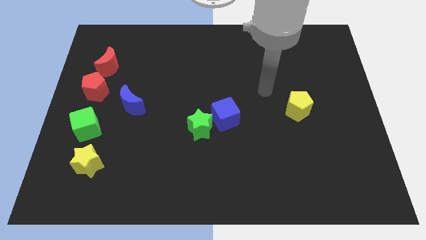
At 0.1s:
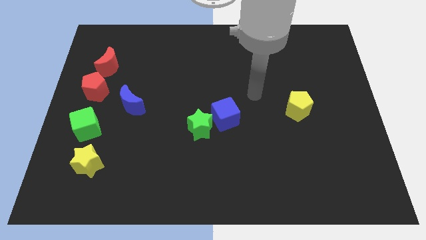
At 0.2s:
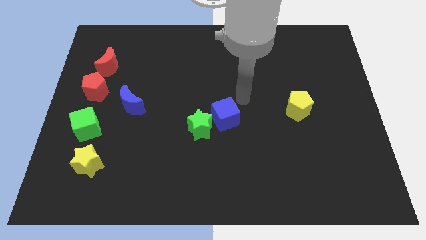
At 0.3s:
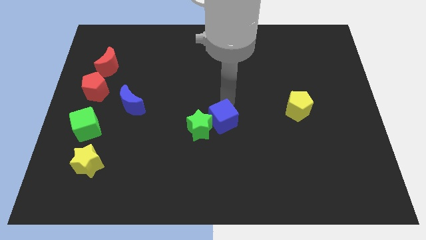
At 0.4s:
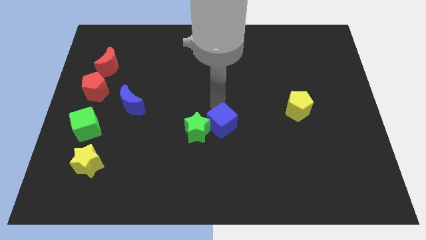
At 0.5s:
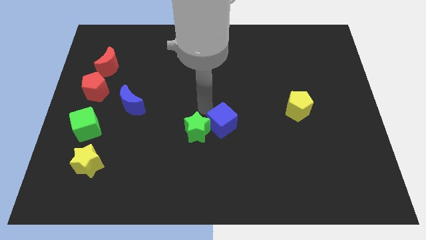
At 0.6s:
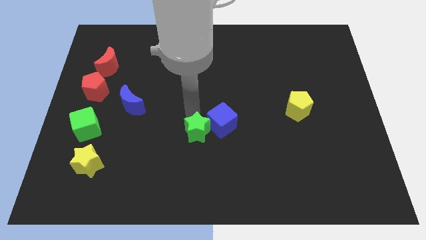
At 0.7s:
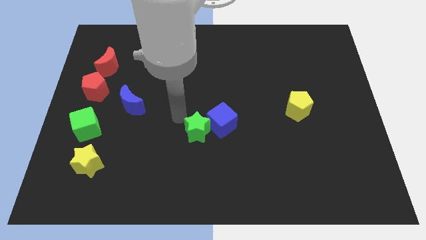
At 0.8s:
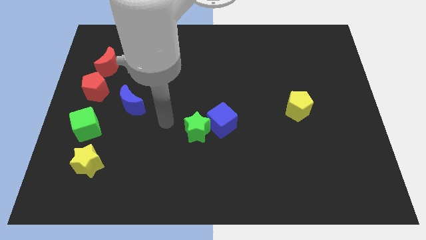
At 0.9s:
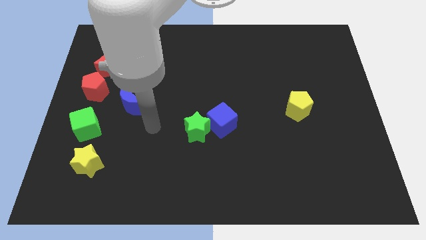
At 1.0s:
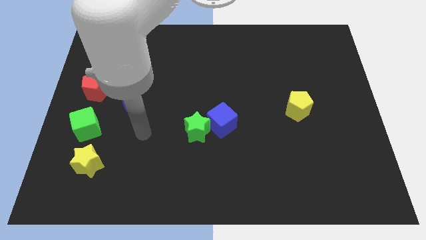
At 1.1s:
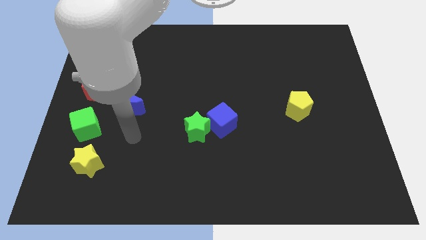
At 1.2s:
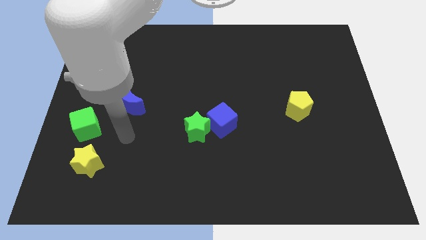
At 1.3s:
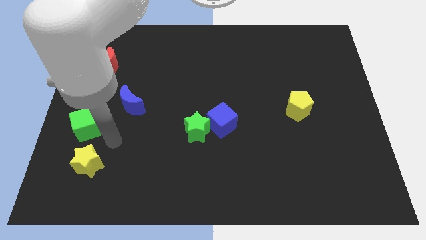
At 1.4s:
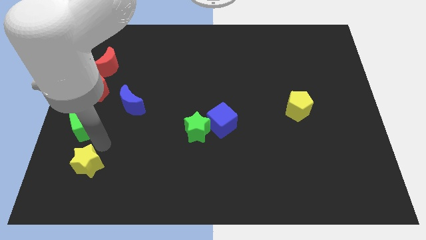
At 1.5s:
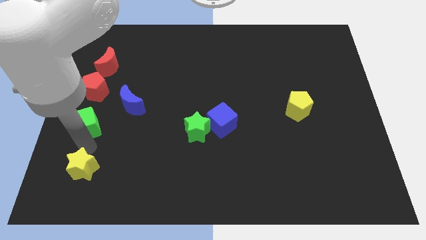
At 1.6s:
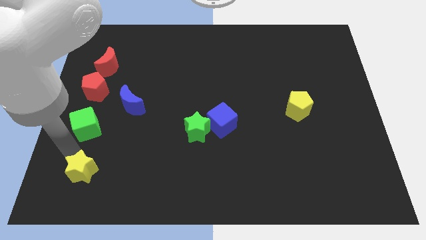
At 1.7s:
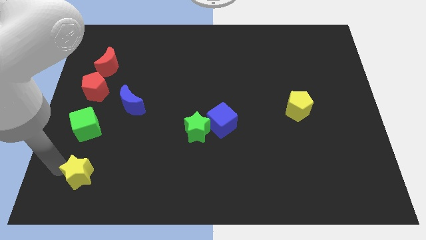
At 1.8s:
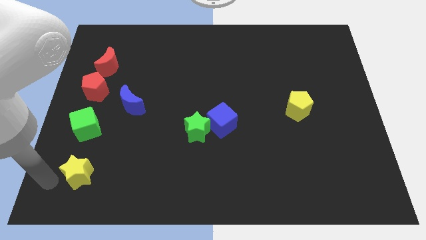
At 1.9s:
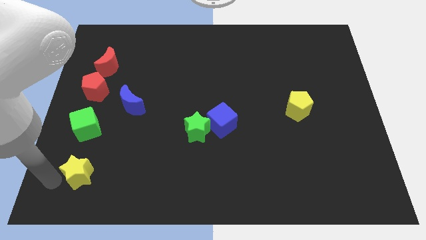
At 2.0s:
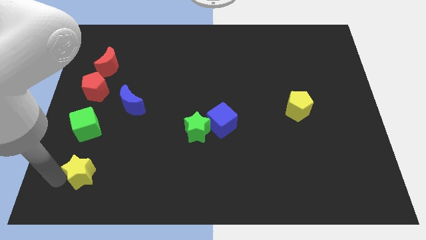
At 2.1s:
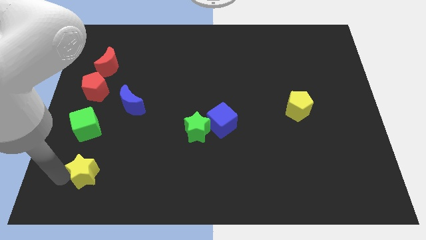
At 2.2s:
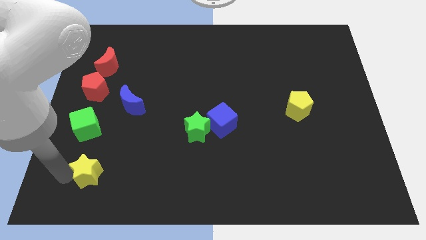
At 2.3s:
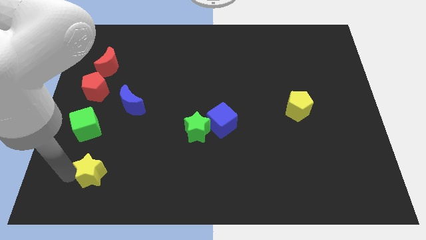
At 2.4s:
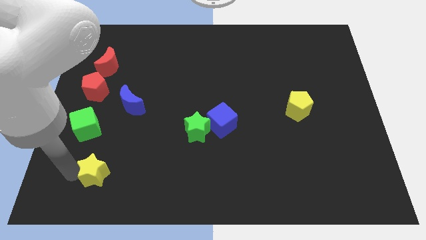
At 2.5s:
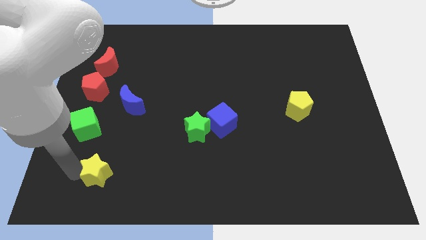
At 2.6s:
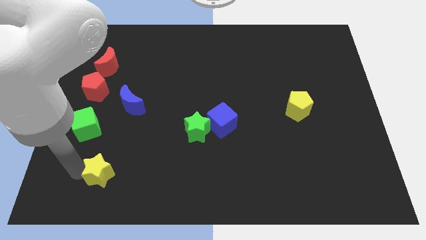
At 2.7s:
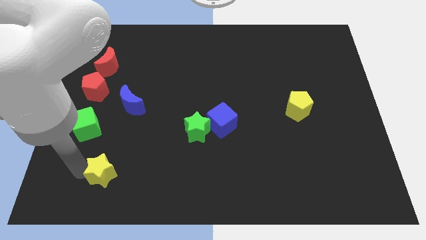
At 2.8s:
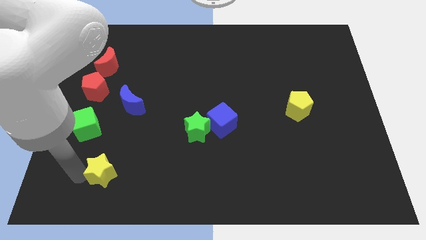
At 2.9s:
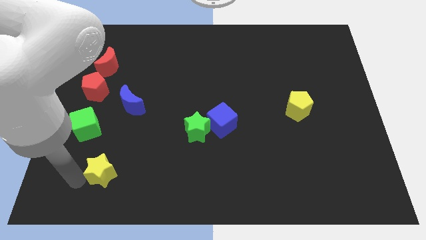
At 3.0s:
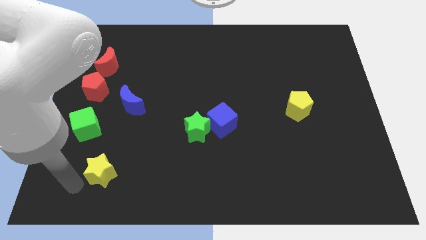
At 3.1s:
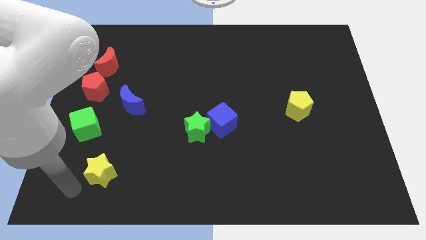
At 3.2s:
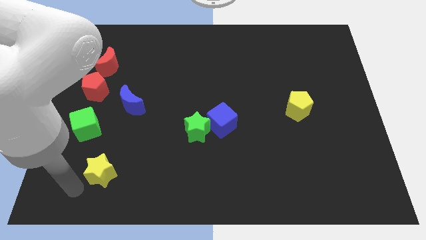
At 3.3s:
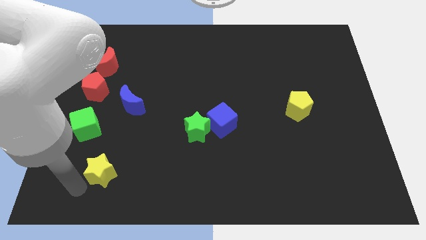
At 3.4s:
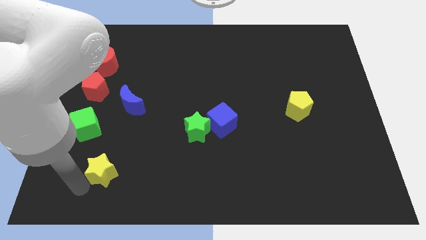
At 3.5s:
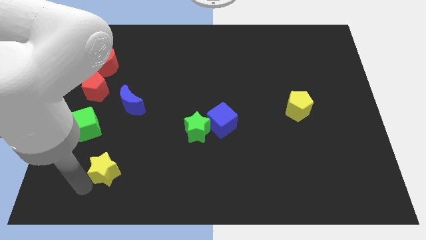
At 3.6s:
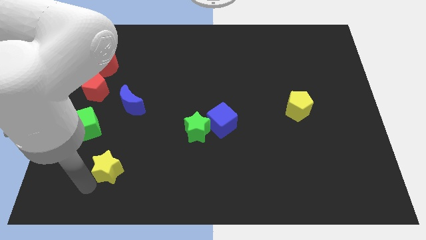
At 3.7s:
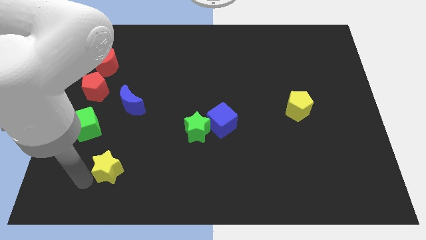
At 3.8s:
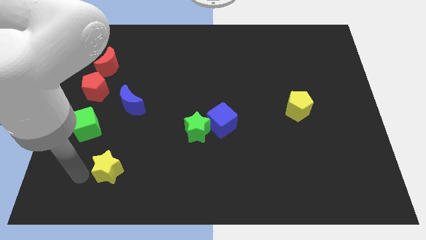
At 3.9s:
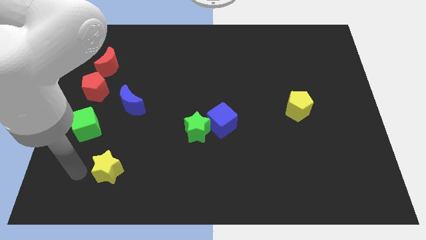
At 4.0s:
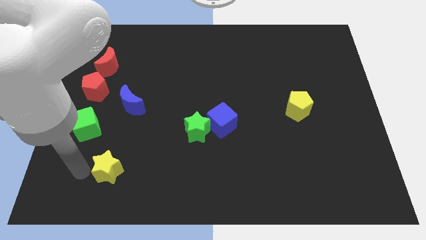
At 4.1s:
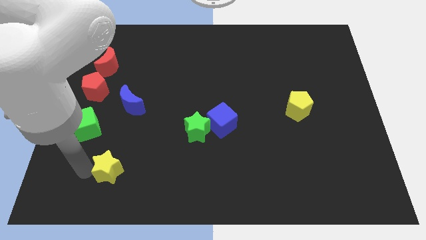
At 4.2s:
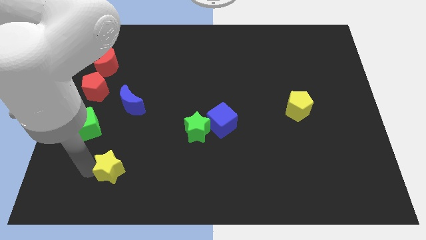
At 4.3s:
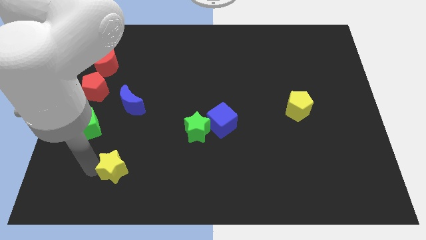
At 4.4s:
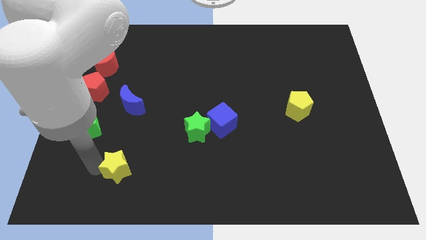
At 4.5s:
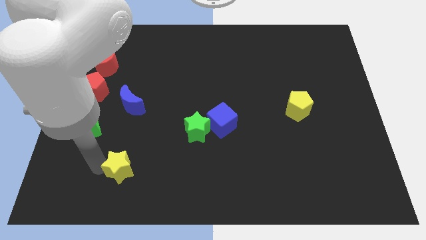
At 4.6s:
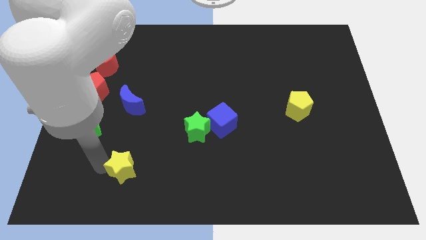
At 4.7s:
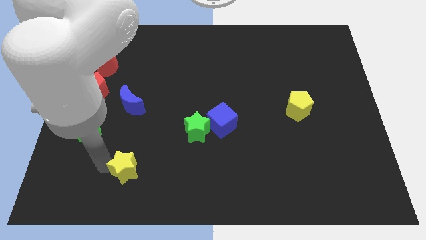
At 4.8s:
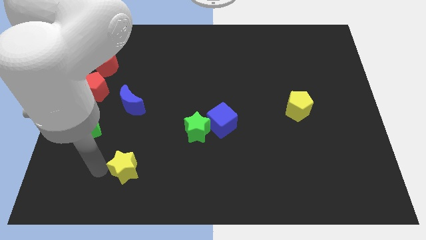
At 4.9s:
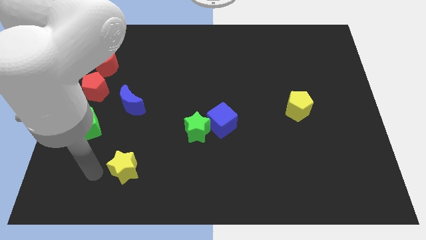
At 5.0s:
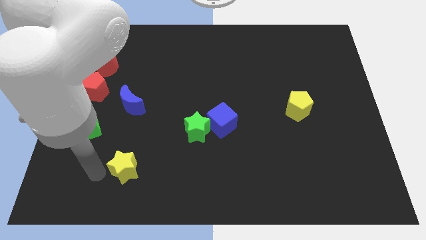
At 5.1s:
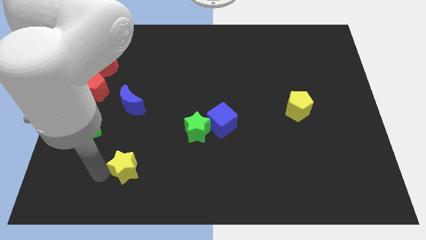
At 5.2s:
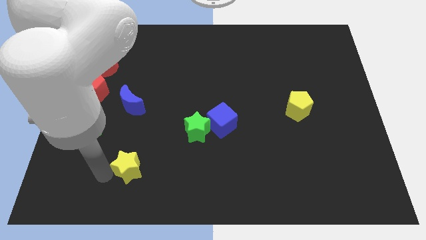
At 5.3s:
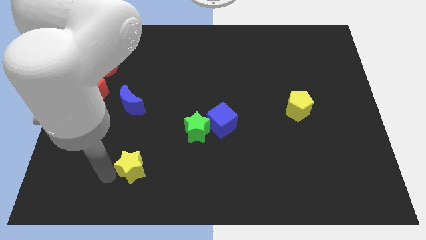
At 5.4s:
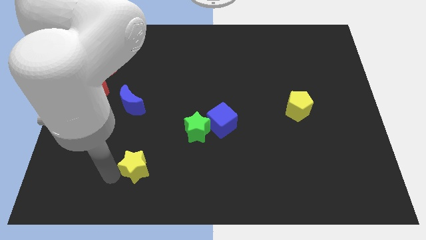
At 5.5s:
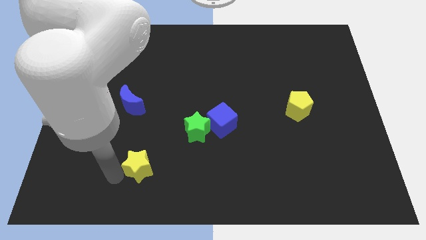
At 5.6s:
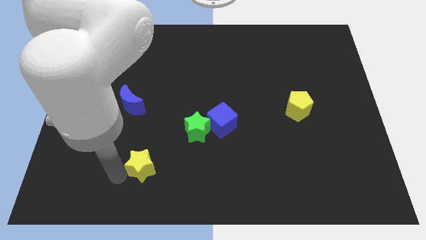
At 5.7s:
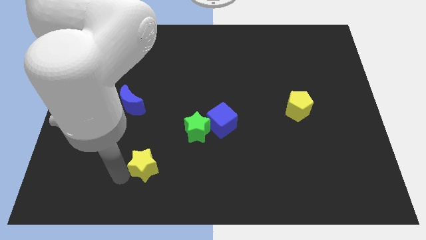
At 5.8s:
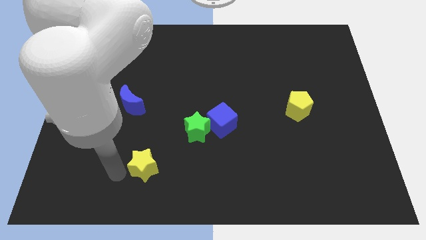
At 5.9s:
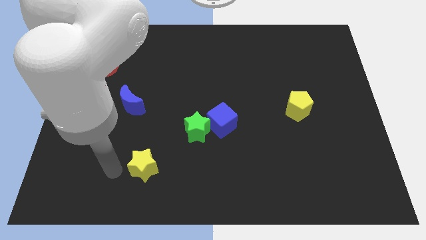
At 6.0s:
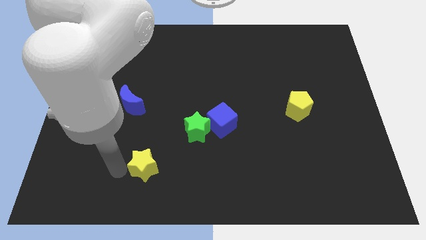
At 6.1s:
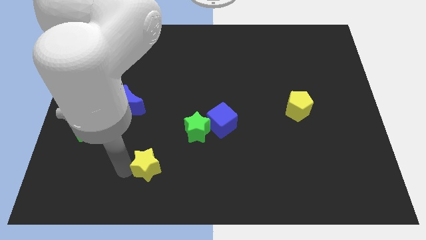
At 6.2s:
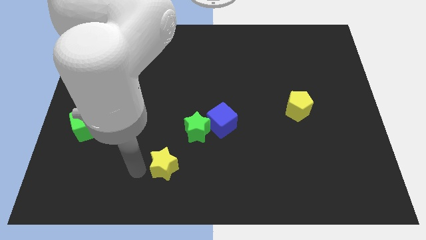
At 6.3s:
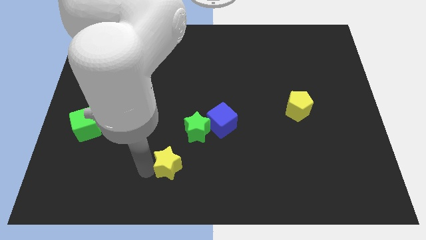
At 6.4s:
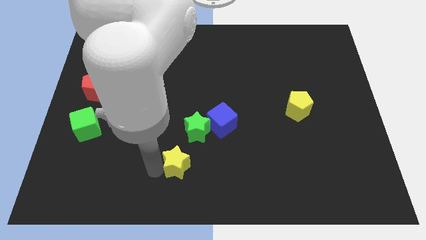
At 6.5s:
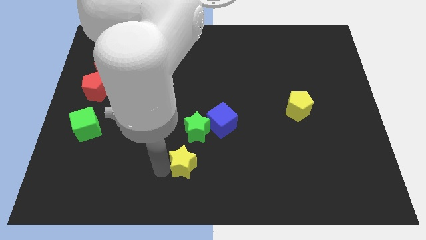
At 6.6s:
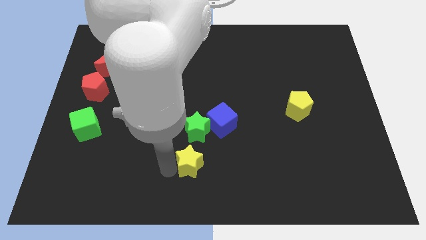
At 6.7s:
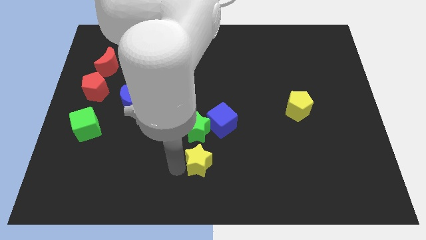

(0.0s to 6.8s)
move the yellow star to the bottom of the blue cube

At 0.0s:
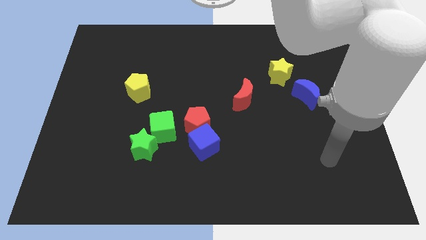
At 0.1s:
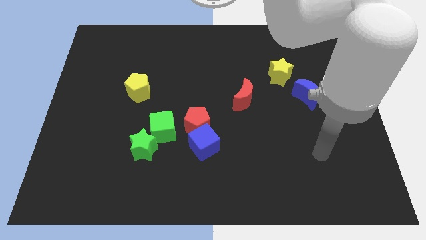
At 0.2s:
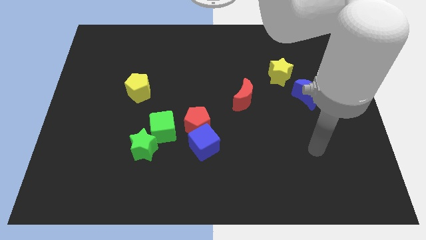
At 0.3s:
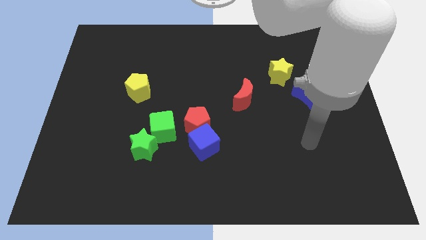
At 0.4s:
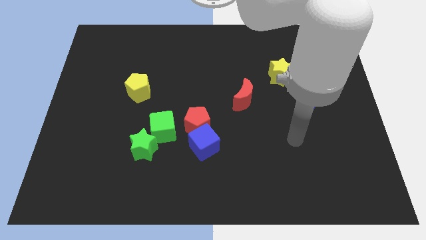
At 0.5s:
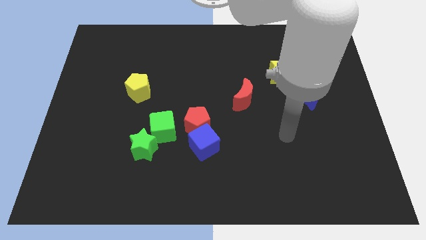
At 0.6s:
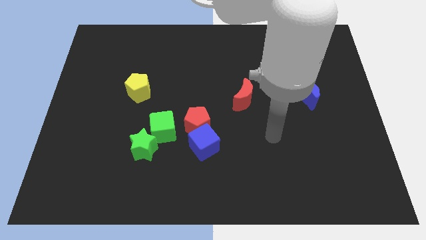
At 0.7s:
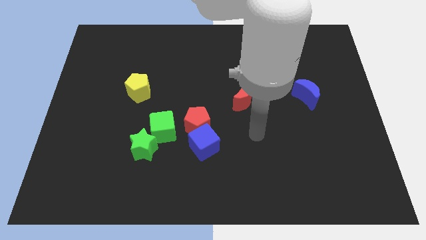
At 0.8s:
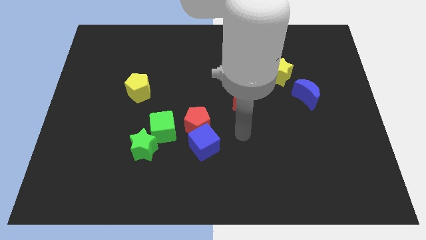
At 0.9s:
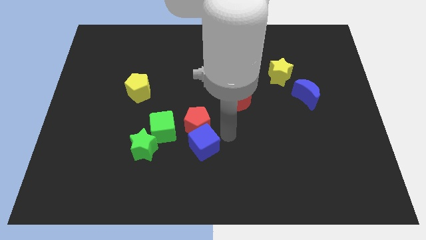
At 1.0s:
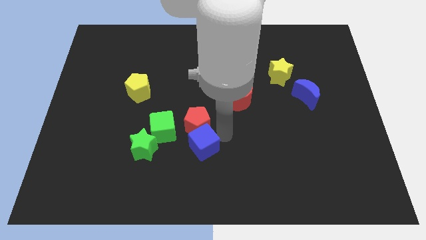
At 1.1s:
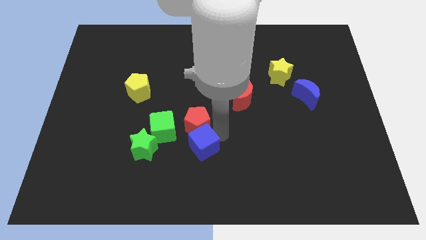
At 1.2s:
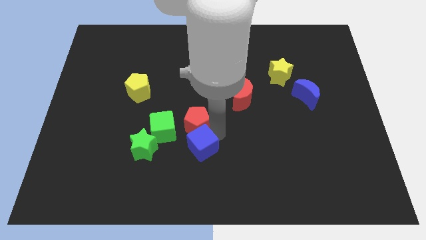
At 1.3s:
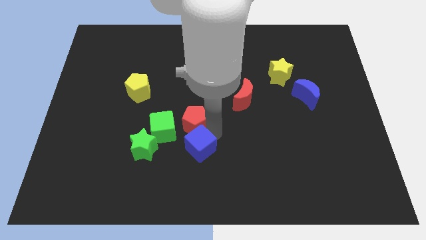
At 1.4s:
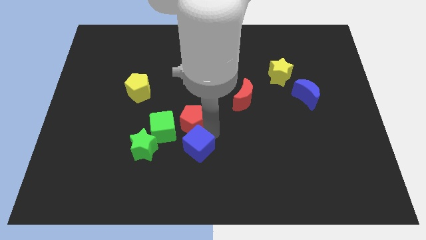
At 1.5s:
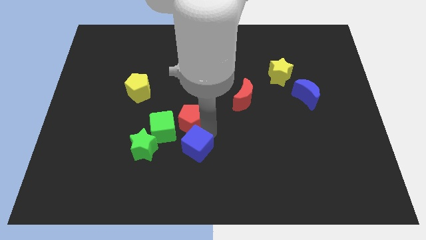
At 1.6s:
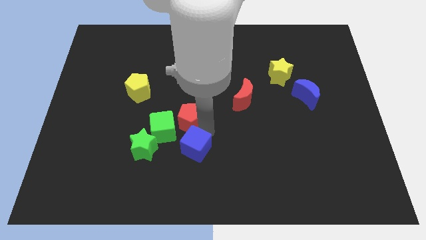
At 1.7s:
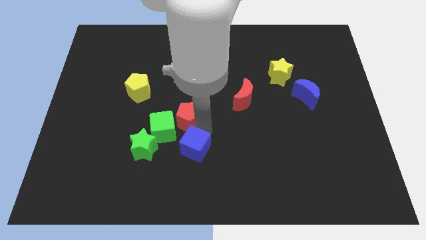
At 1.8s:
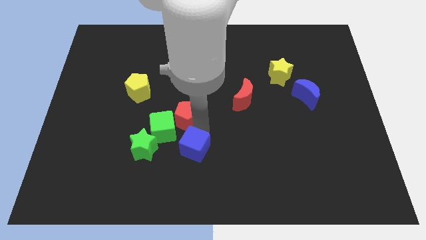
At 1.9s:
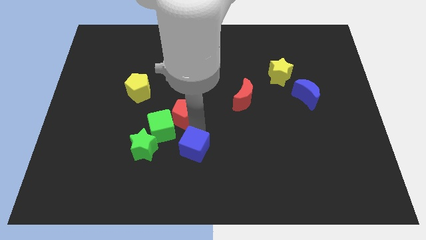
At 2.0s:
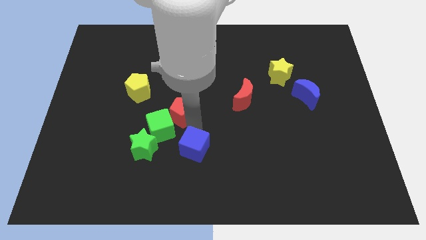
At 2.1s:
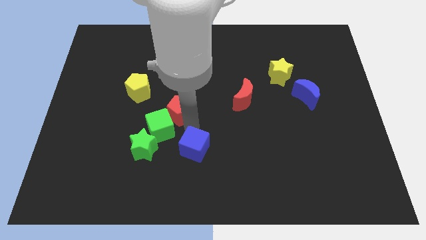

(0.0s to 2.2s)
move the red pentagon to the bottom right of the yellow pentagon
